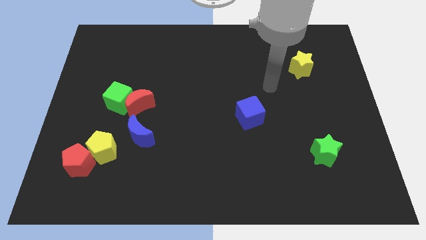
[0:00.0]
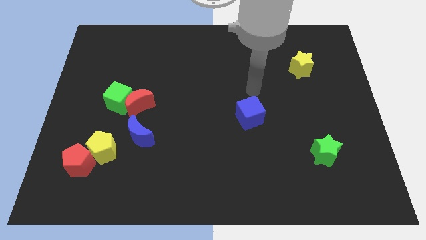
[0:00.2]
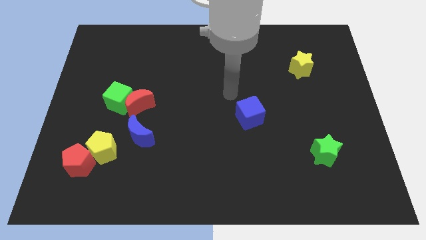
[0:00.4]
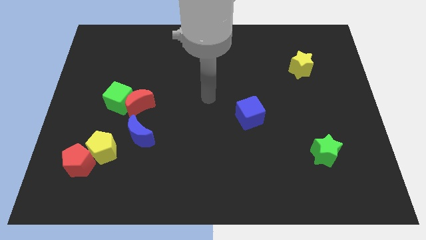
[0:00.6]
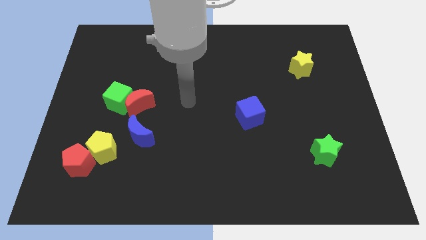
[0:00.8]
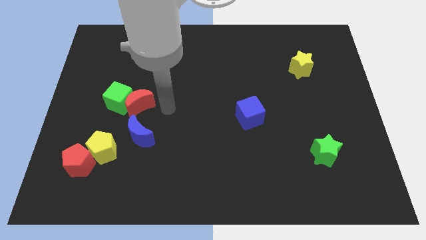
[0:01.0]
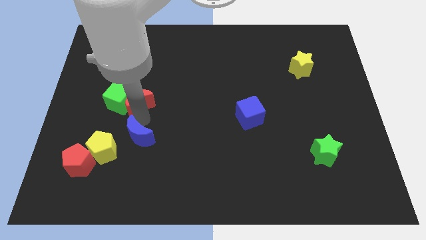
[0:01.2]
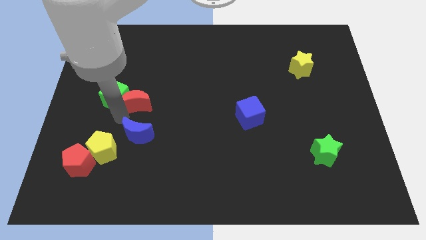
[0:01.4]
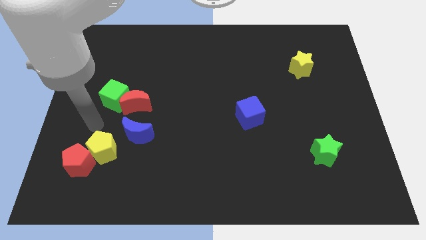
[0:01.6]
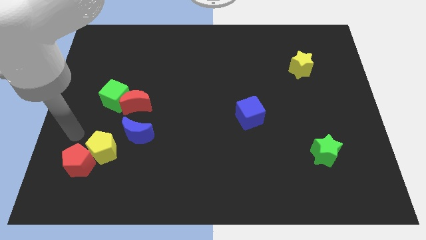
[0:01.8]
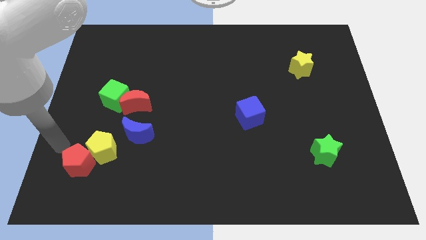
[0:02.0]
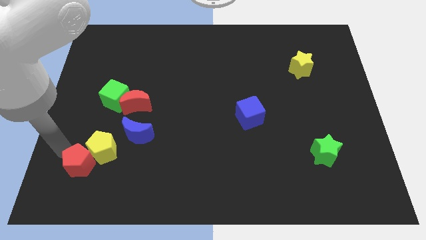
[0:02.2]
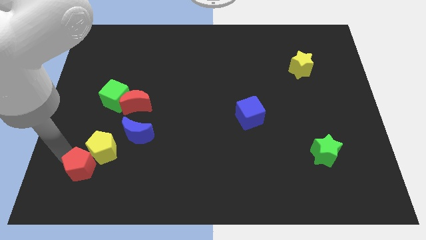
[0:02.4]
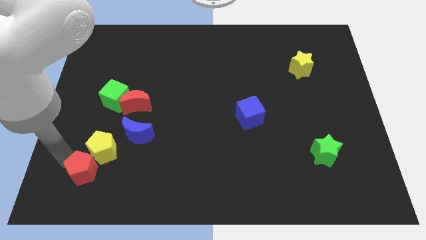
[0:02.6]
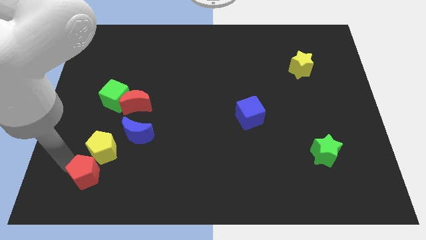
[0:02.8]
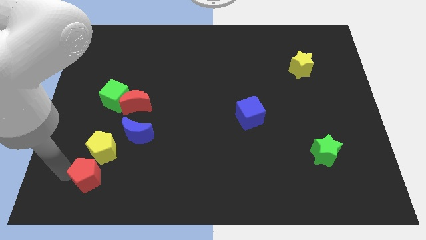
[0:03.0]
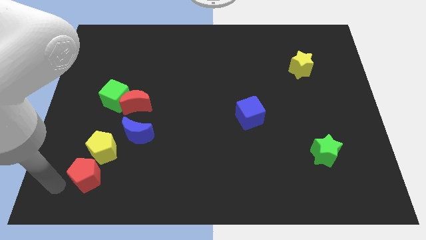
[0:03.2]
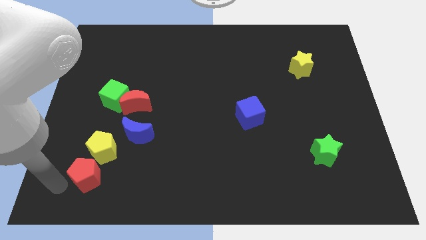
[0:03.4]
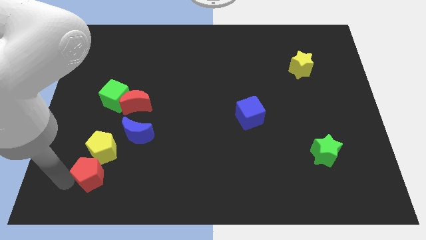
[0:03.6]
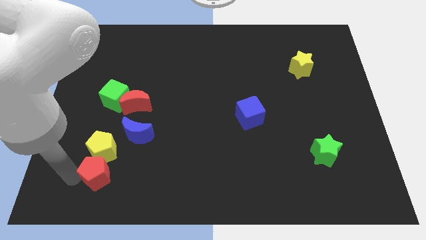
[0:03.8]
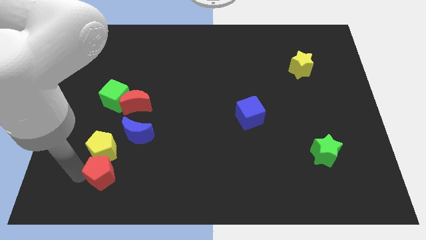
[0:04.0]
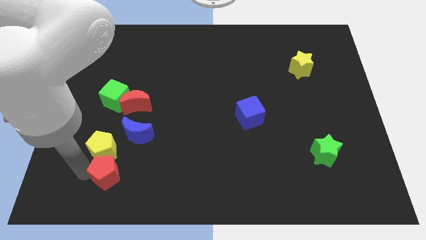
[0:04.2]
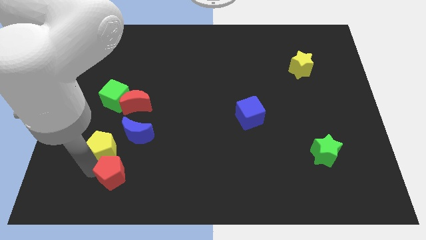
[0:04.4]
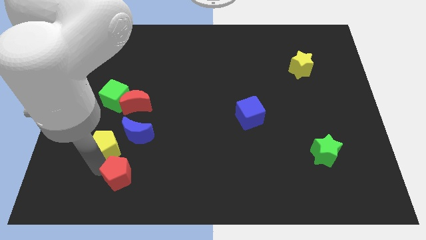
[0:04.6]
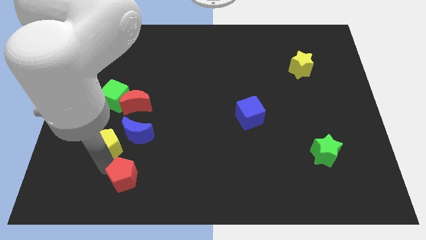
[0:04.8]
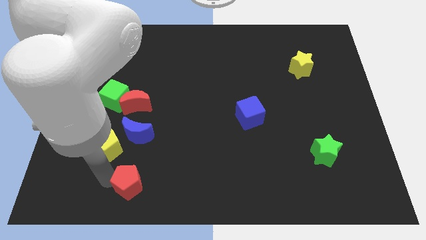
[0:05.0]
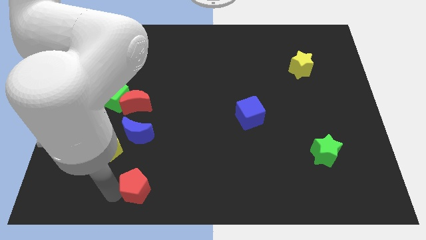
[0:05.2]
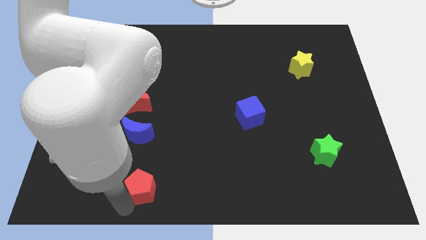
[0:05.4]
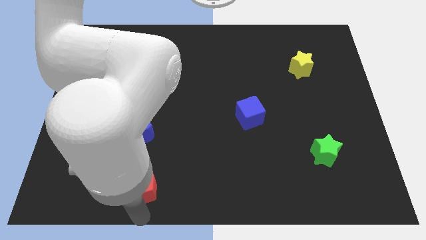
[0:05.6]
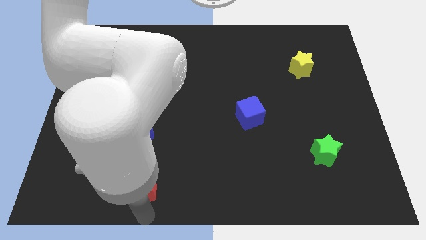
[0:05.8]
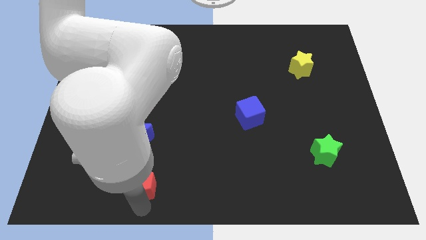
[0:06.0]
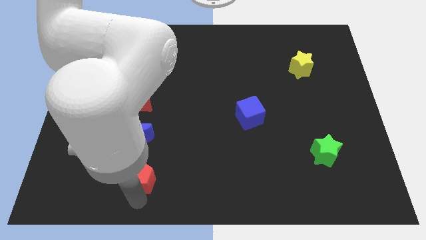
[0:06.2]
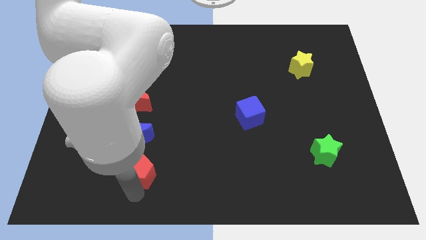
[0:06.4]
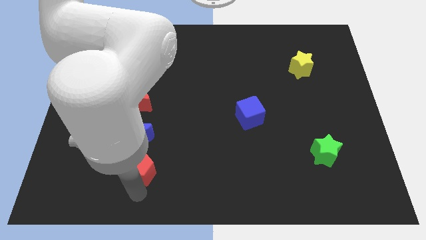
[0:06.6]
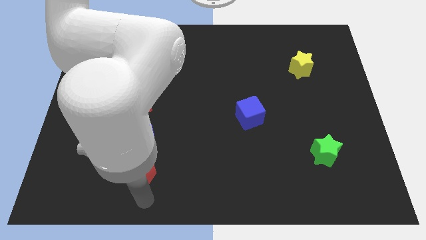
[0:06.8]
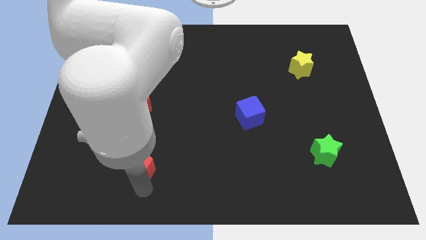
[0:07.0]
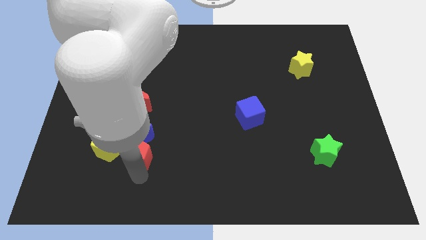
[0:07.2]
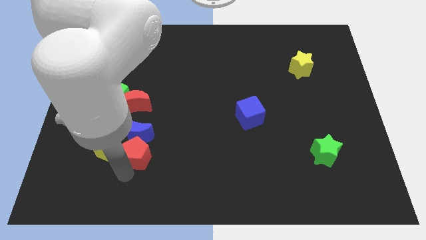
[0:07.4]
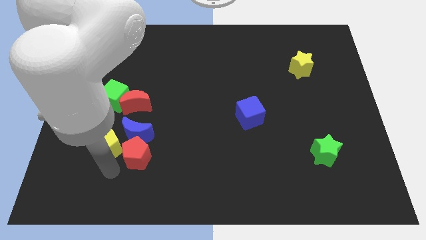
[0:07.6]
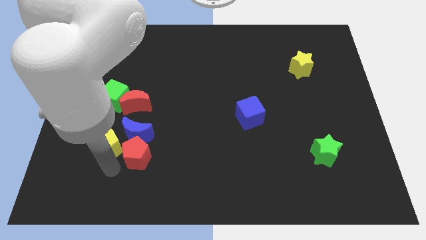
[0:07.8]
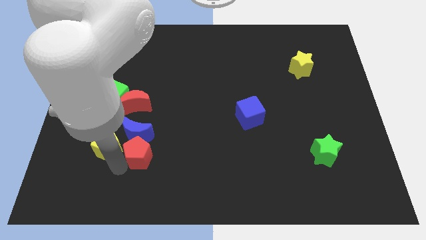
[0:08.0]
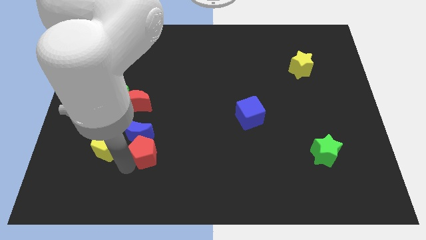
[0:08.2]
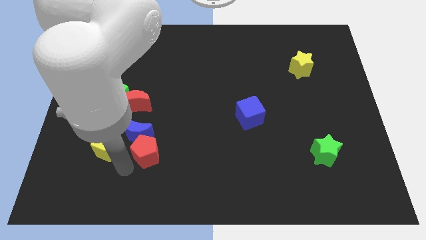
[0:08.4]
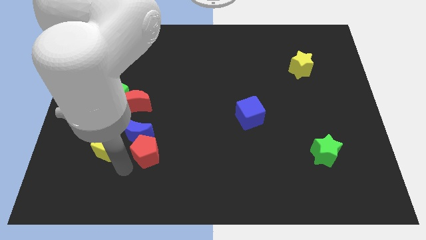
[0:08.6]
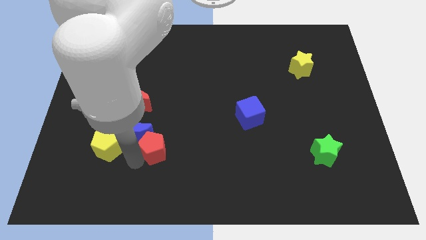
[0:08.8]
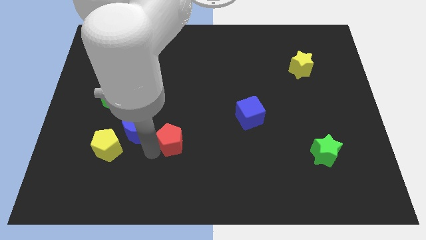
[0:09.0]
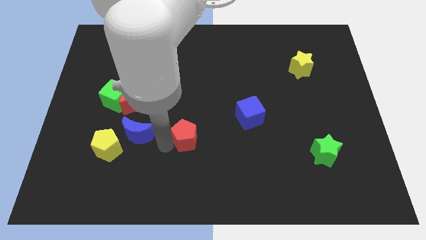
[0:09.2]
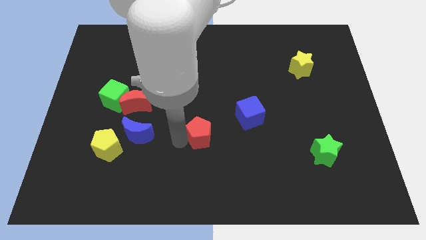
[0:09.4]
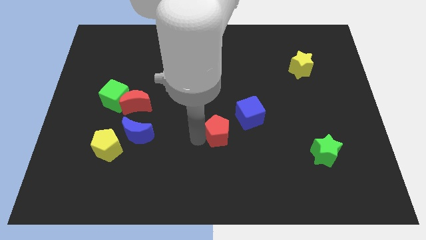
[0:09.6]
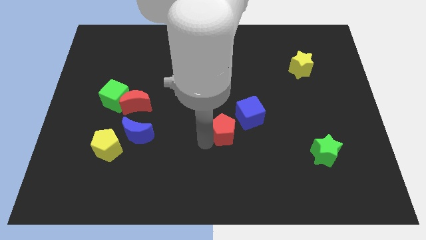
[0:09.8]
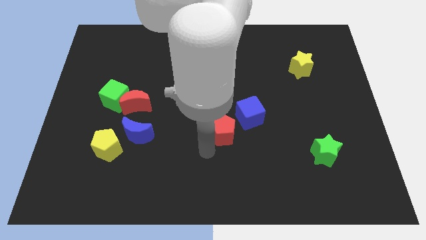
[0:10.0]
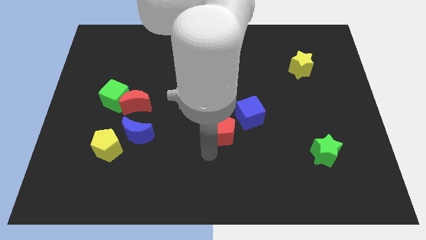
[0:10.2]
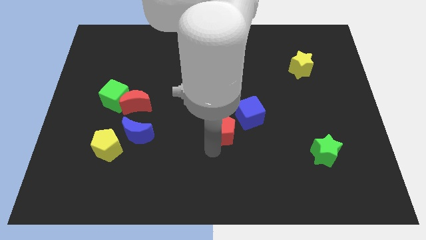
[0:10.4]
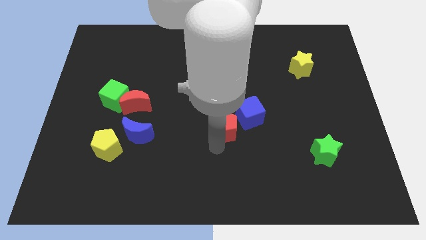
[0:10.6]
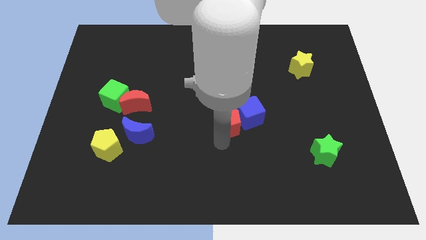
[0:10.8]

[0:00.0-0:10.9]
push the red pentagon next to the blue cube

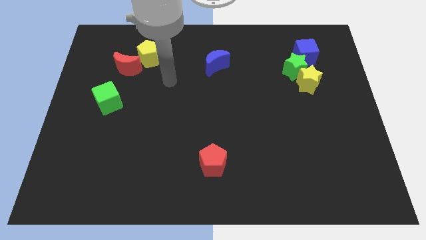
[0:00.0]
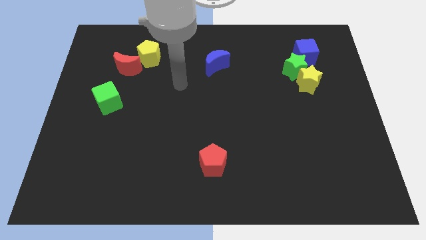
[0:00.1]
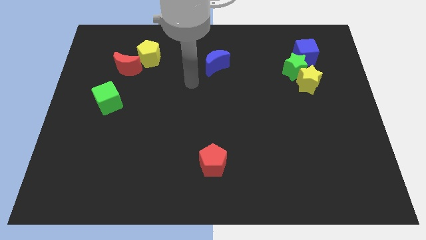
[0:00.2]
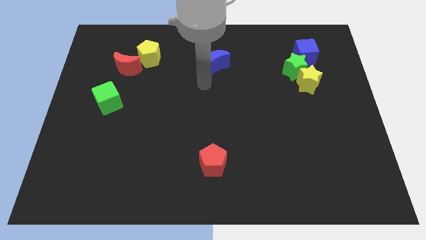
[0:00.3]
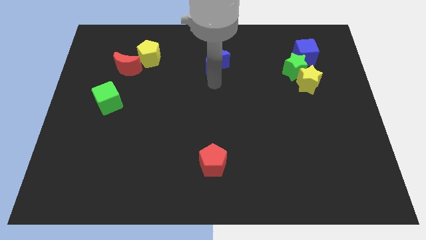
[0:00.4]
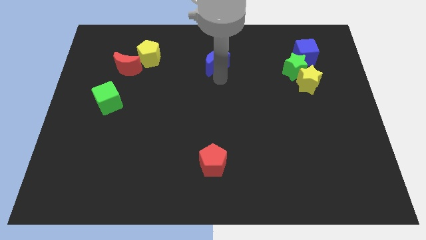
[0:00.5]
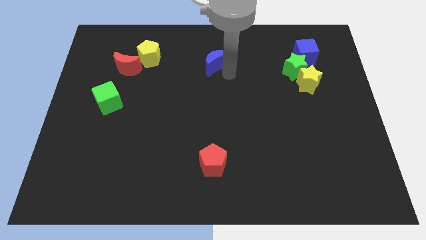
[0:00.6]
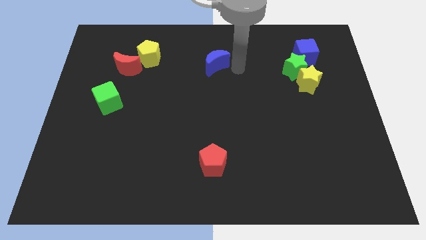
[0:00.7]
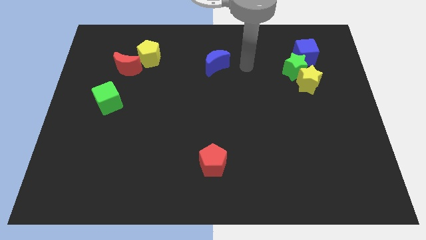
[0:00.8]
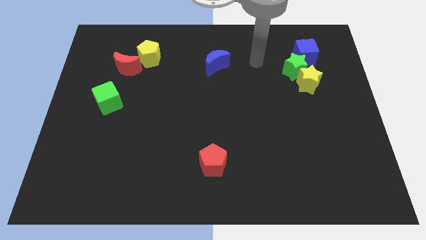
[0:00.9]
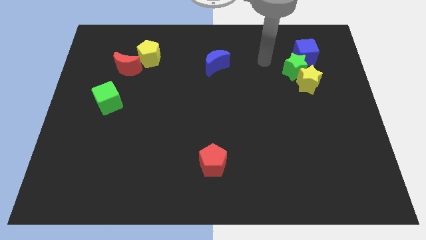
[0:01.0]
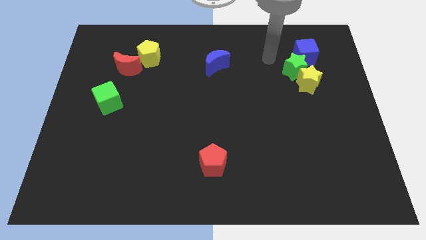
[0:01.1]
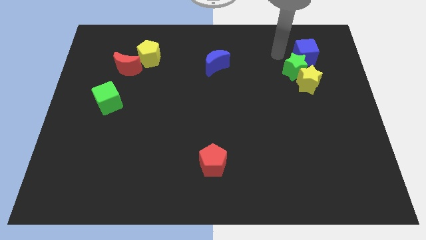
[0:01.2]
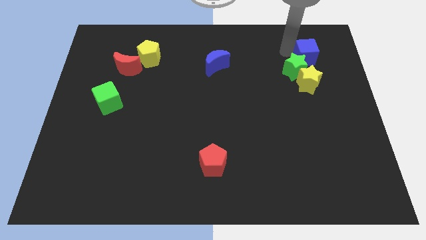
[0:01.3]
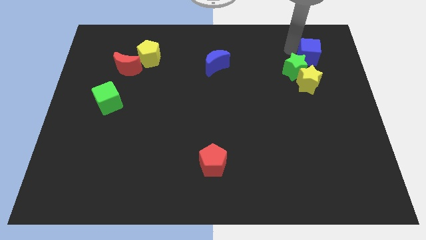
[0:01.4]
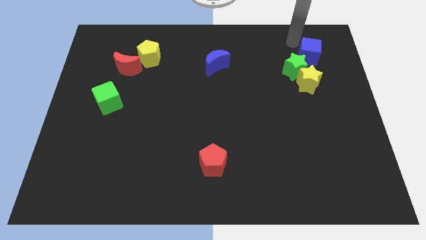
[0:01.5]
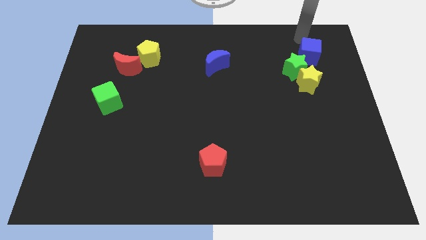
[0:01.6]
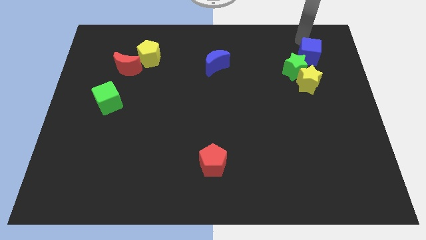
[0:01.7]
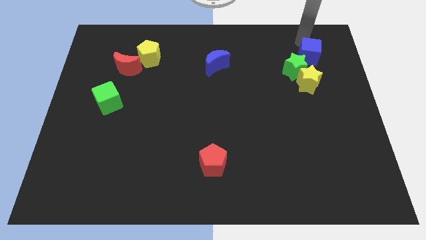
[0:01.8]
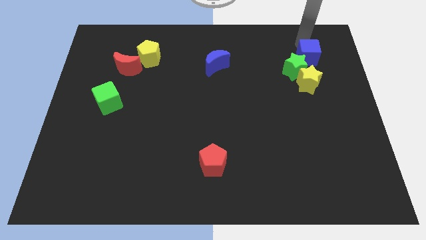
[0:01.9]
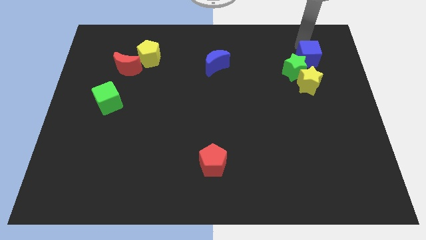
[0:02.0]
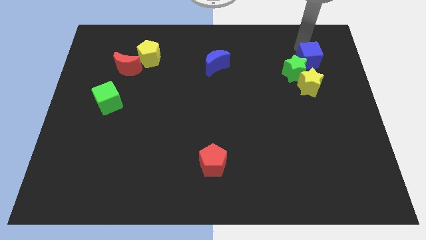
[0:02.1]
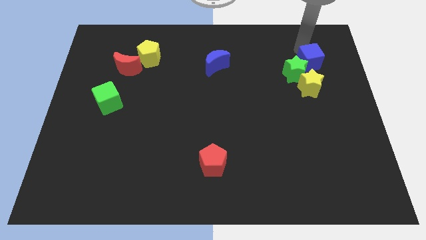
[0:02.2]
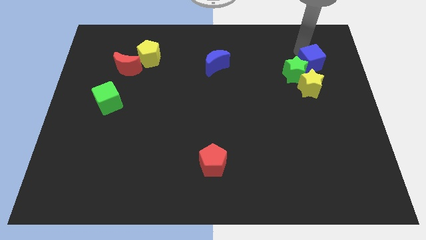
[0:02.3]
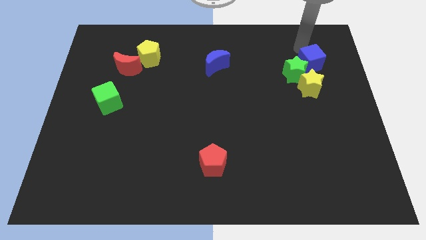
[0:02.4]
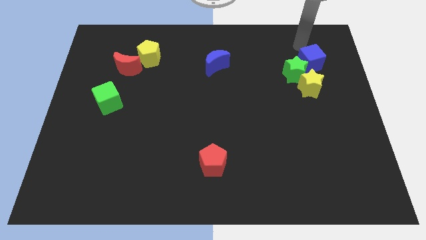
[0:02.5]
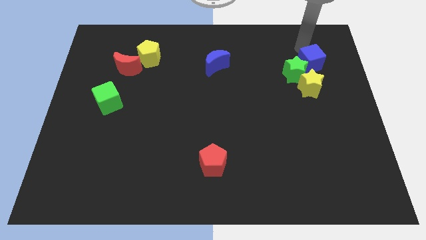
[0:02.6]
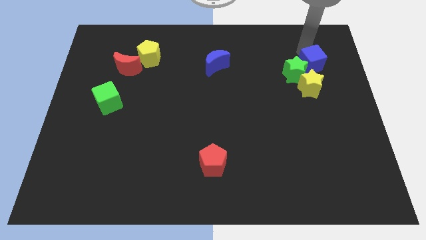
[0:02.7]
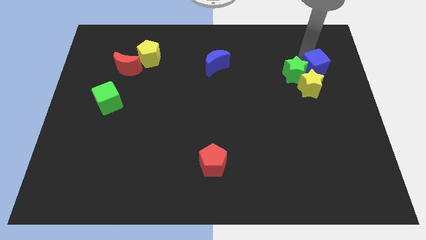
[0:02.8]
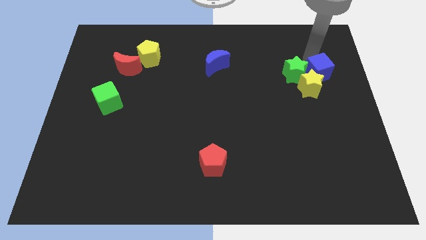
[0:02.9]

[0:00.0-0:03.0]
put the blue cube next to the yellow star
